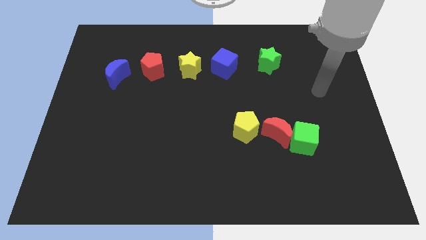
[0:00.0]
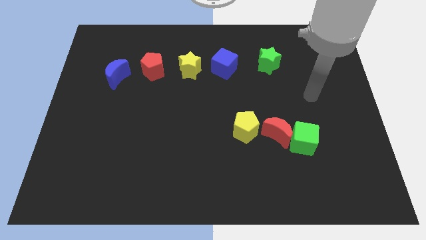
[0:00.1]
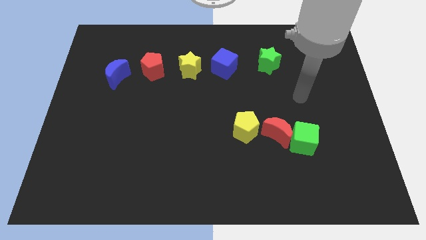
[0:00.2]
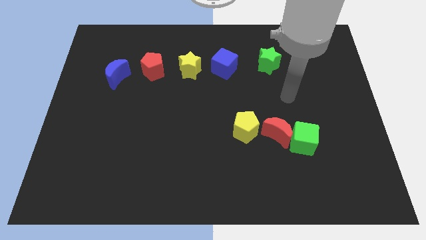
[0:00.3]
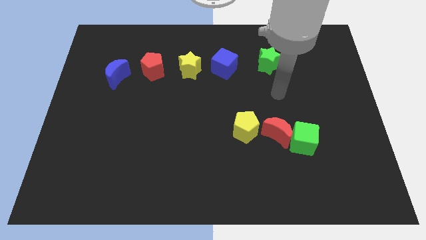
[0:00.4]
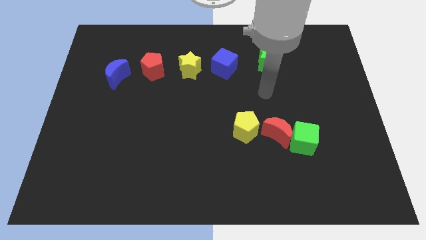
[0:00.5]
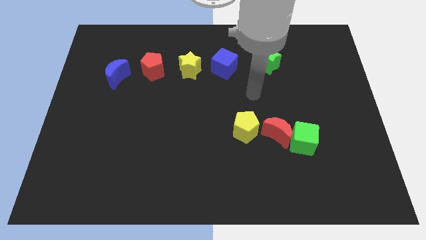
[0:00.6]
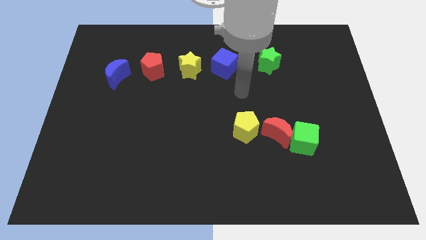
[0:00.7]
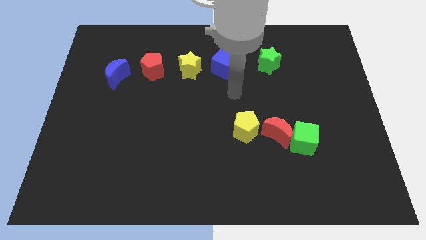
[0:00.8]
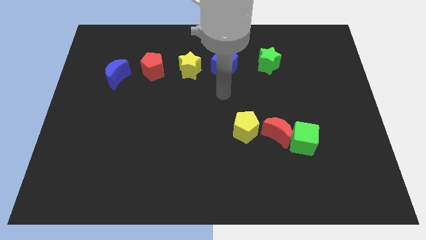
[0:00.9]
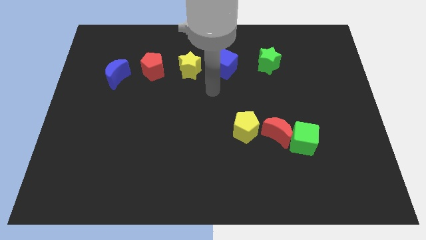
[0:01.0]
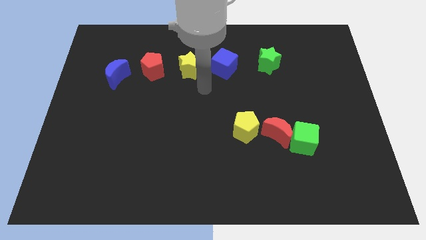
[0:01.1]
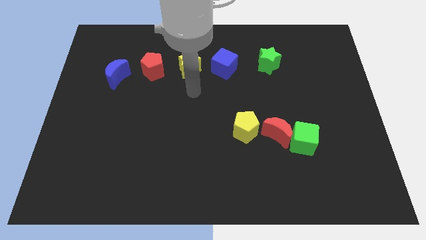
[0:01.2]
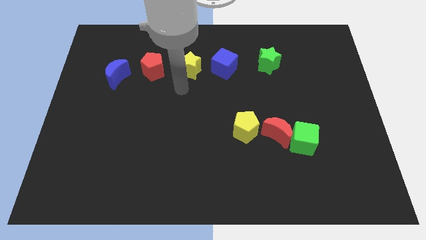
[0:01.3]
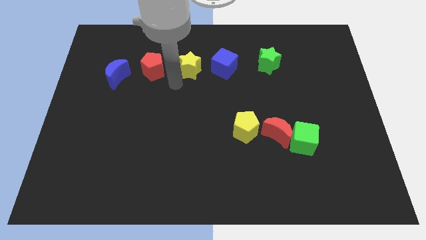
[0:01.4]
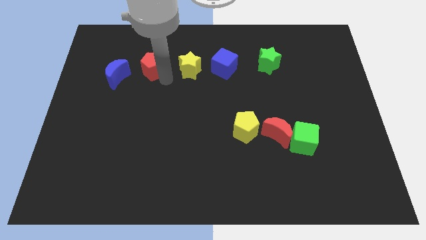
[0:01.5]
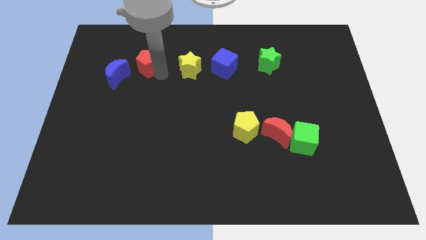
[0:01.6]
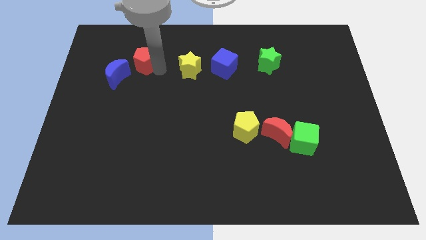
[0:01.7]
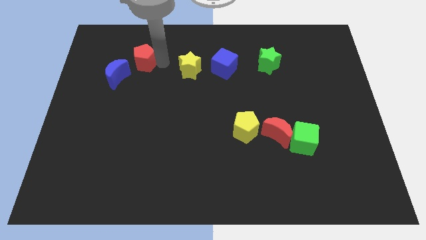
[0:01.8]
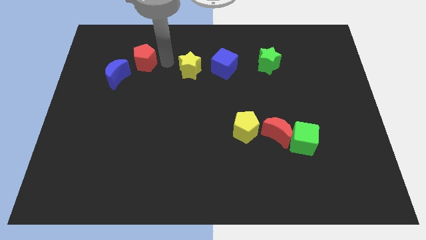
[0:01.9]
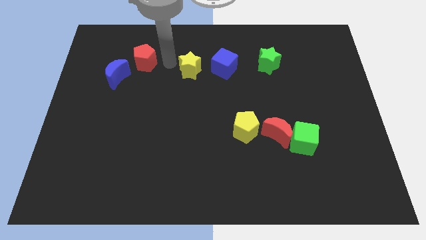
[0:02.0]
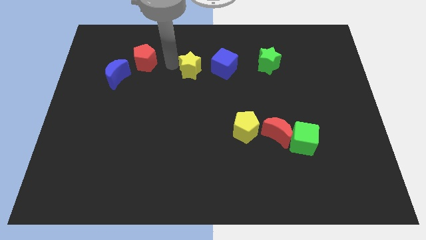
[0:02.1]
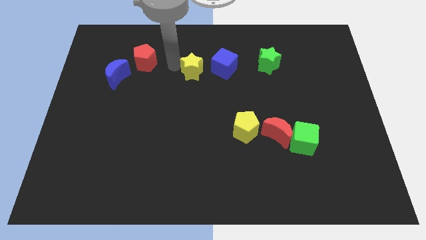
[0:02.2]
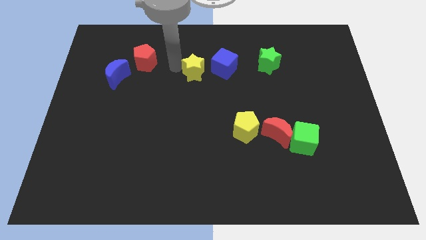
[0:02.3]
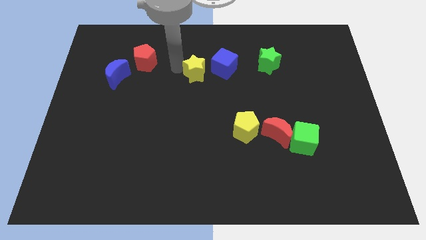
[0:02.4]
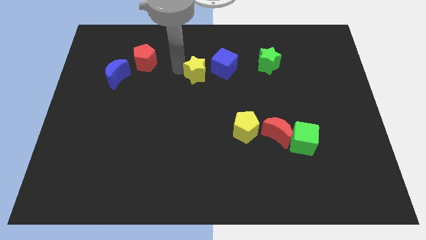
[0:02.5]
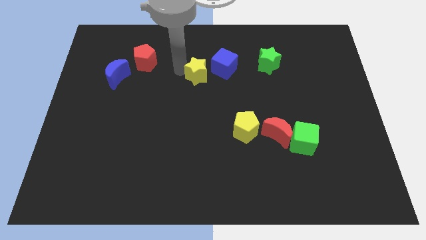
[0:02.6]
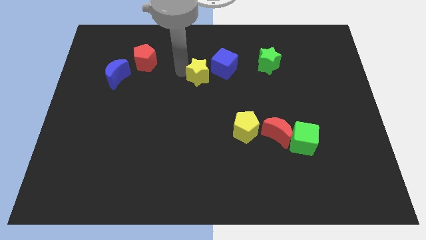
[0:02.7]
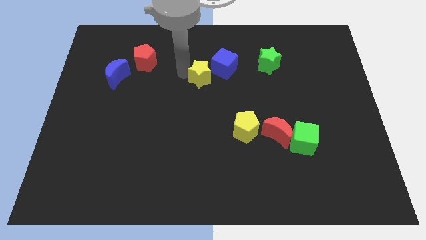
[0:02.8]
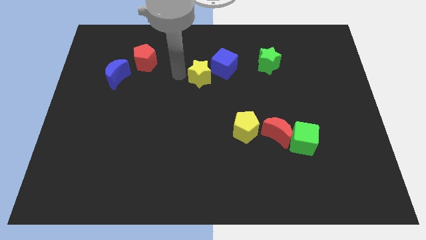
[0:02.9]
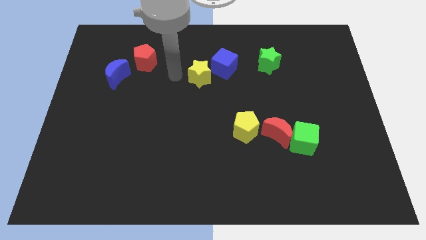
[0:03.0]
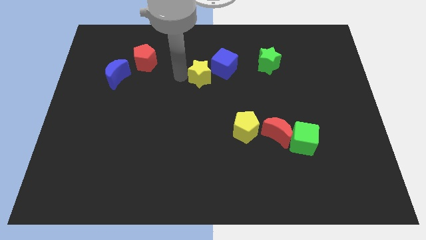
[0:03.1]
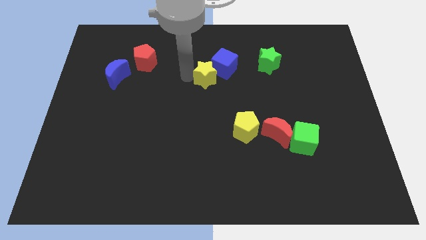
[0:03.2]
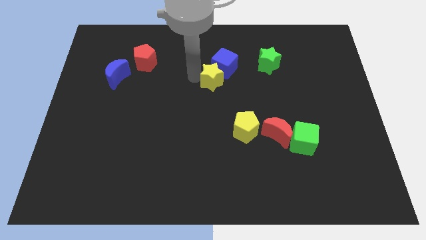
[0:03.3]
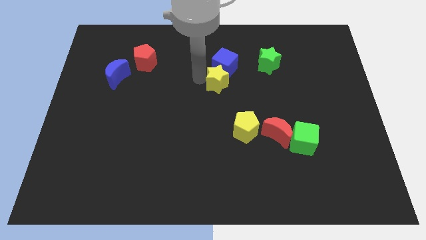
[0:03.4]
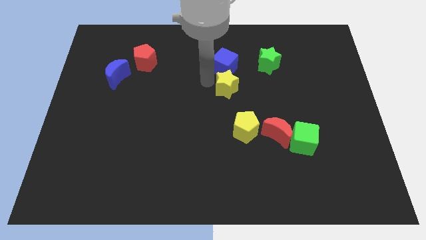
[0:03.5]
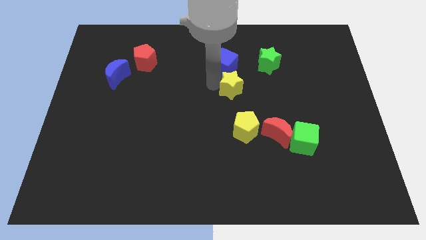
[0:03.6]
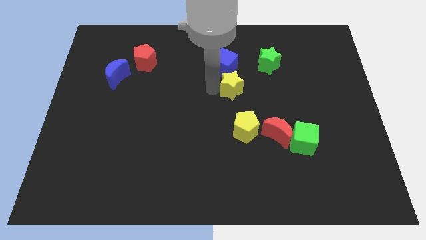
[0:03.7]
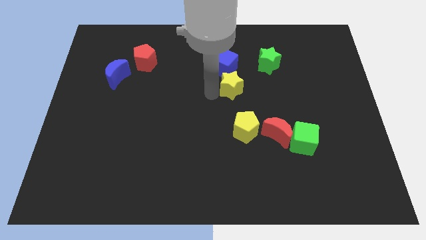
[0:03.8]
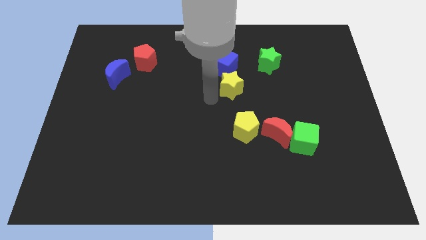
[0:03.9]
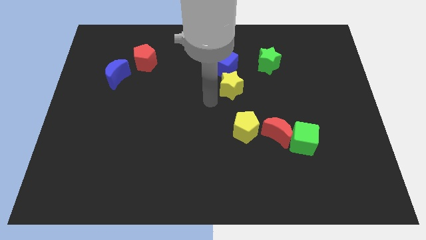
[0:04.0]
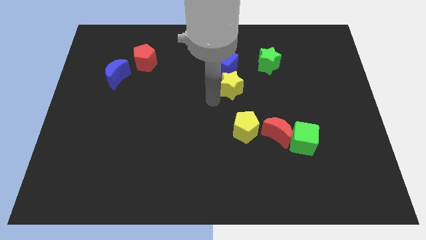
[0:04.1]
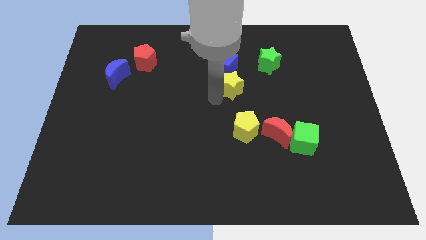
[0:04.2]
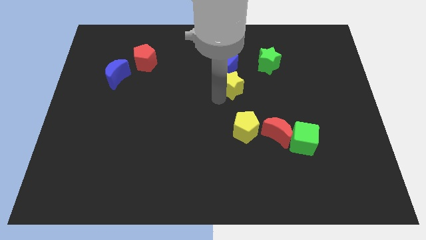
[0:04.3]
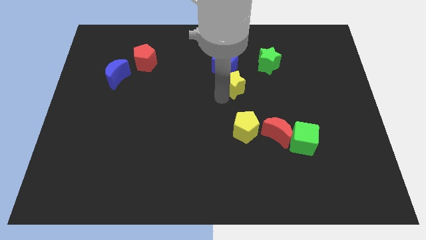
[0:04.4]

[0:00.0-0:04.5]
put the yellow star diagonally down and to the left of the green star

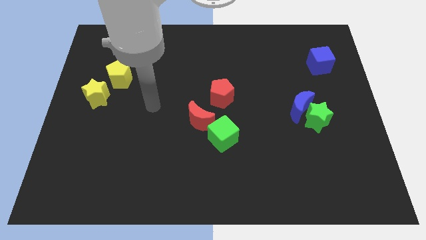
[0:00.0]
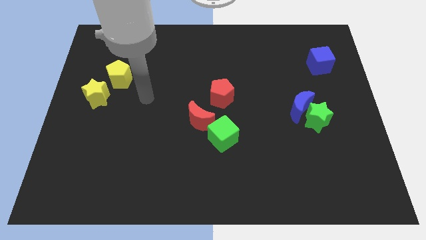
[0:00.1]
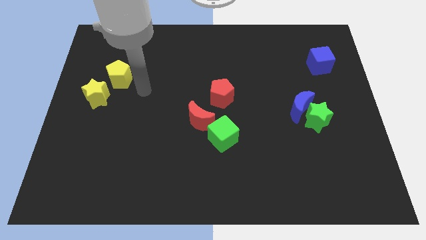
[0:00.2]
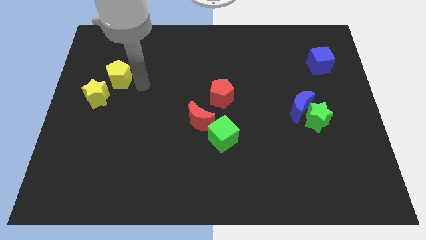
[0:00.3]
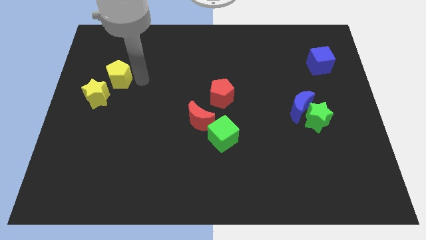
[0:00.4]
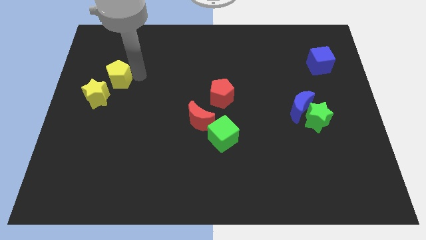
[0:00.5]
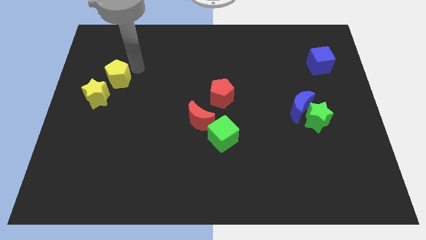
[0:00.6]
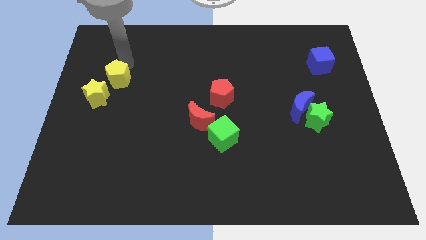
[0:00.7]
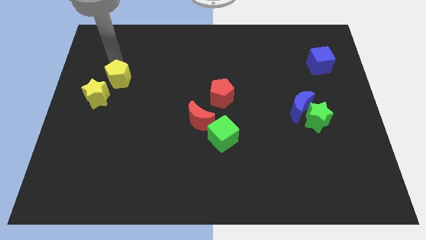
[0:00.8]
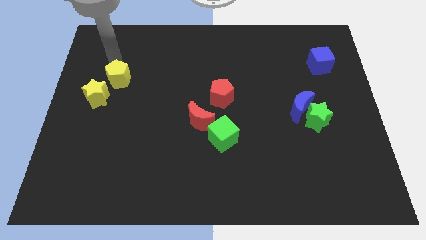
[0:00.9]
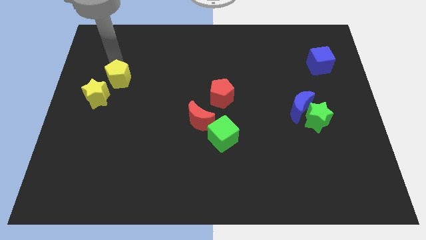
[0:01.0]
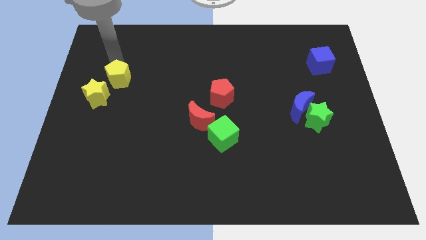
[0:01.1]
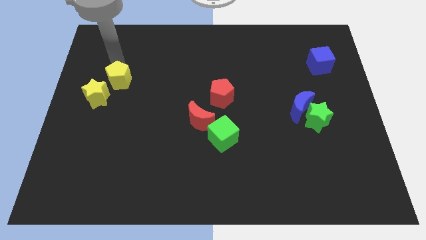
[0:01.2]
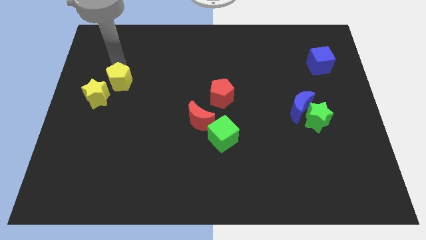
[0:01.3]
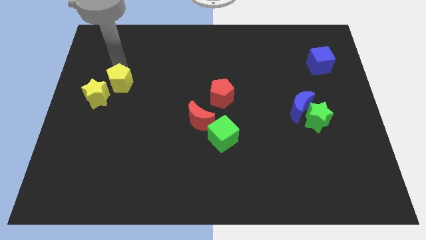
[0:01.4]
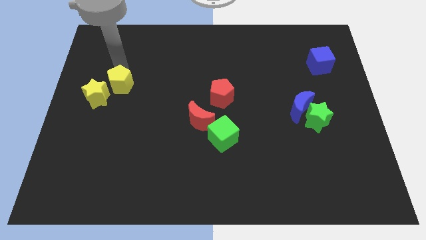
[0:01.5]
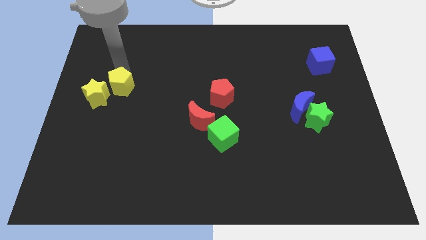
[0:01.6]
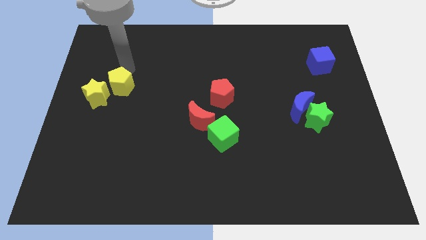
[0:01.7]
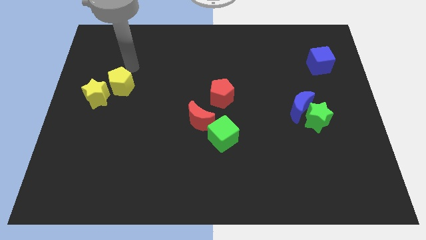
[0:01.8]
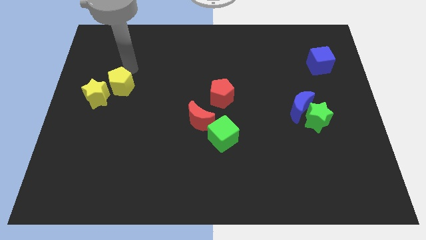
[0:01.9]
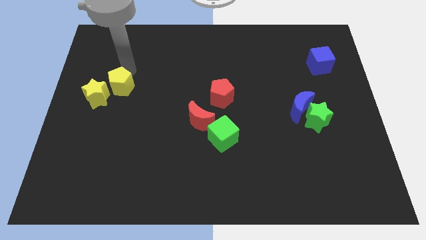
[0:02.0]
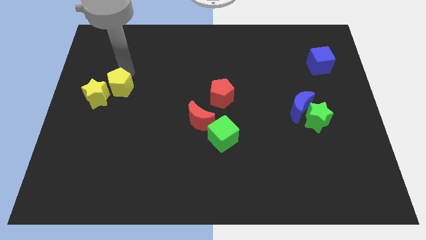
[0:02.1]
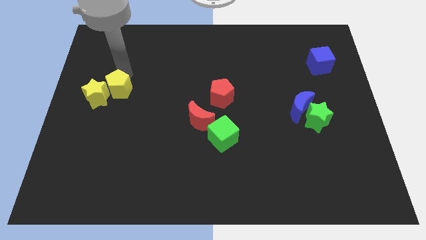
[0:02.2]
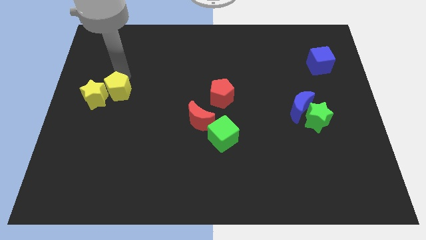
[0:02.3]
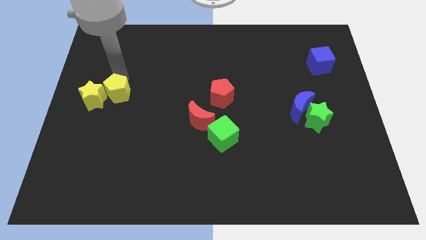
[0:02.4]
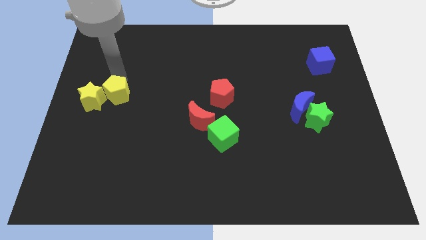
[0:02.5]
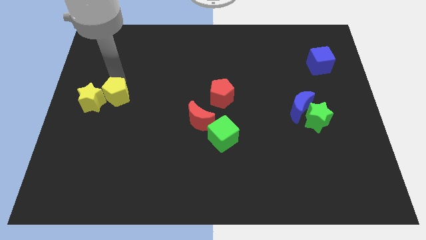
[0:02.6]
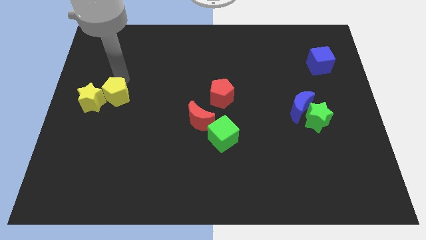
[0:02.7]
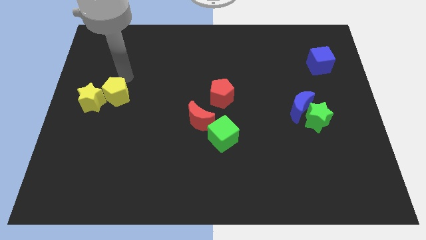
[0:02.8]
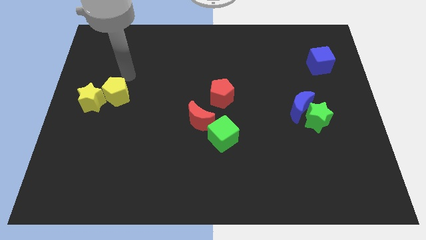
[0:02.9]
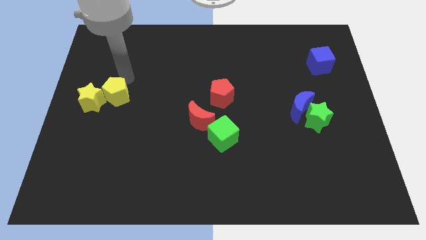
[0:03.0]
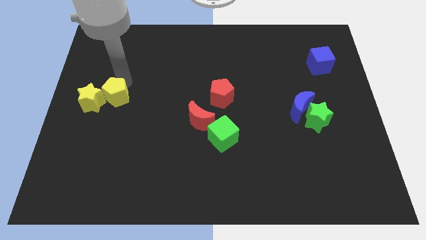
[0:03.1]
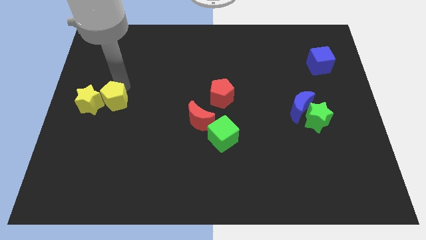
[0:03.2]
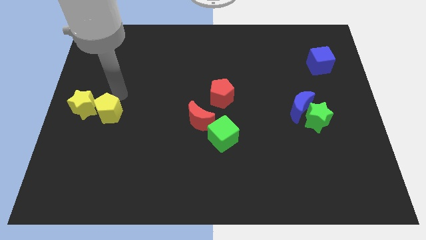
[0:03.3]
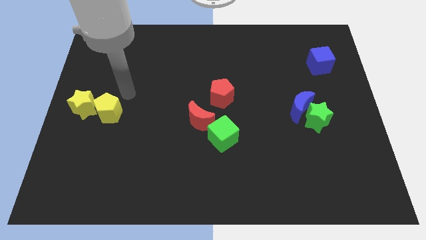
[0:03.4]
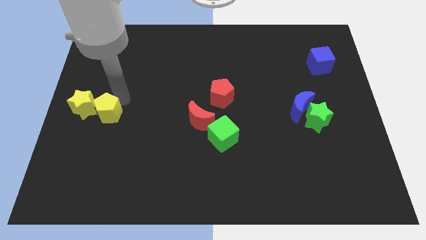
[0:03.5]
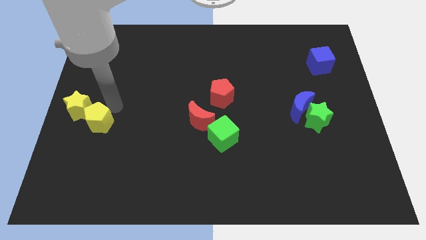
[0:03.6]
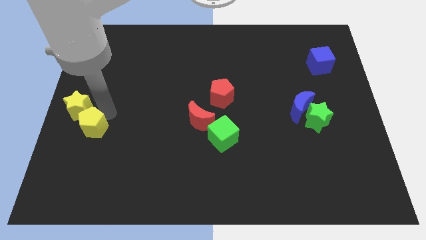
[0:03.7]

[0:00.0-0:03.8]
move the yellow pentagon below the yellow star
